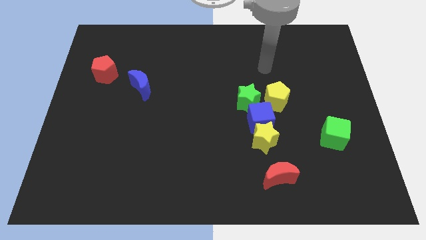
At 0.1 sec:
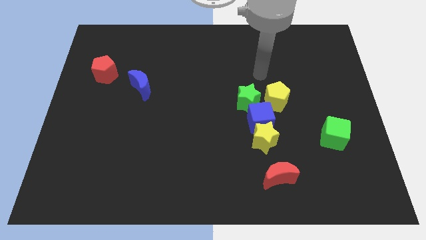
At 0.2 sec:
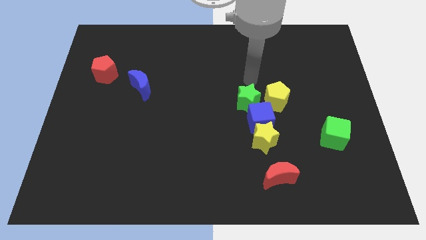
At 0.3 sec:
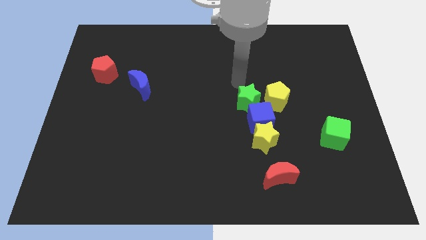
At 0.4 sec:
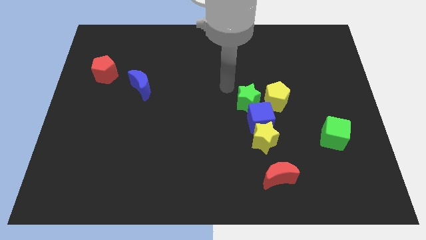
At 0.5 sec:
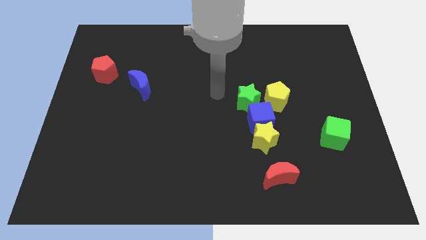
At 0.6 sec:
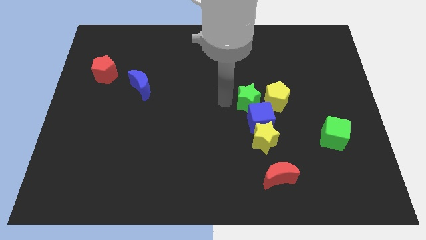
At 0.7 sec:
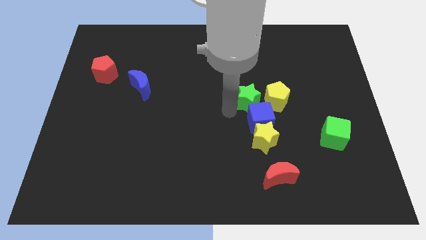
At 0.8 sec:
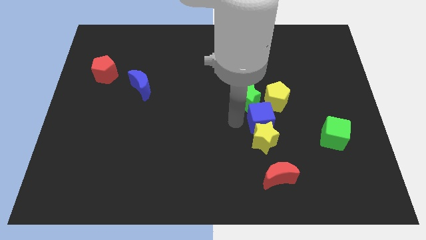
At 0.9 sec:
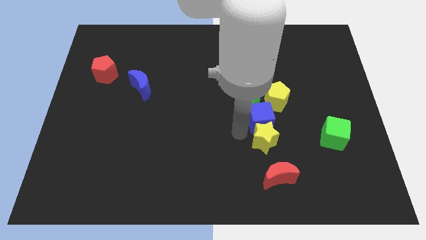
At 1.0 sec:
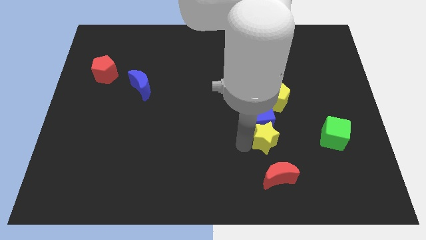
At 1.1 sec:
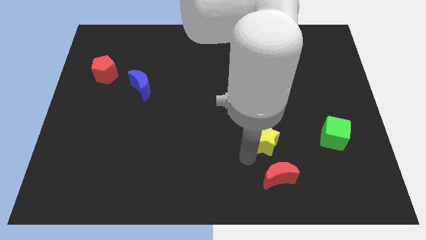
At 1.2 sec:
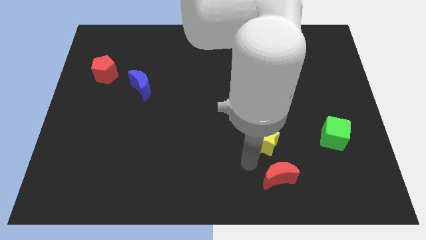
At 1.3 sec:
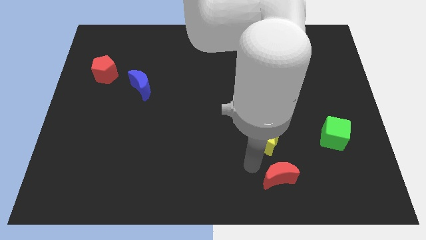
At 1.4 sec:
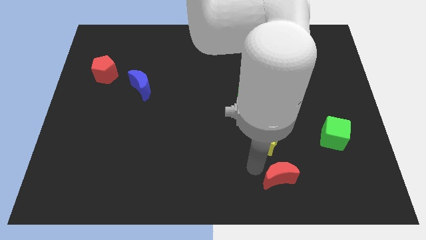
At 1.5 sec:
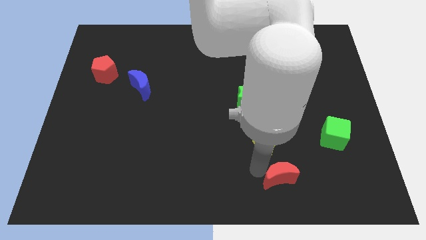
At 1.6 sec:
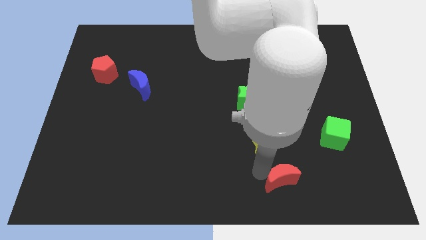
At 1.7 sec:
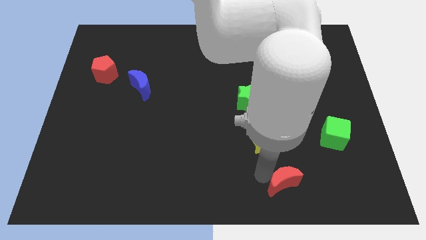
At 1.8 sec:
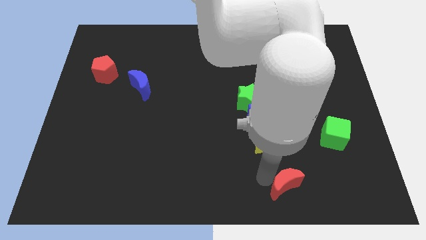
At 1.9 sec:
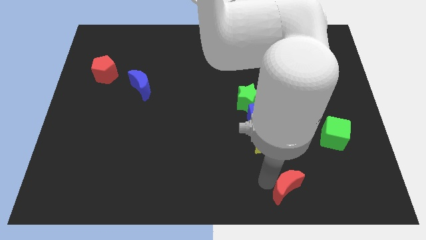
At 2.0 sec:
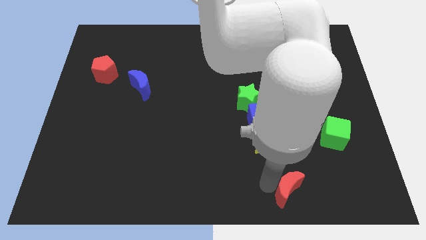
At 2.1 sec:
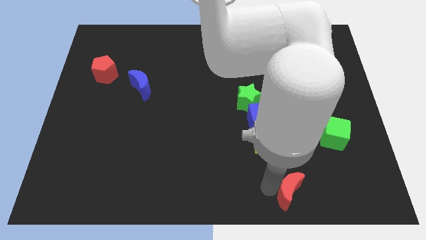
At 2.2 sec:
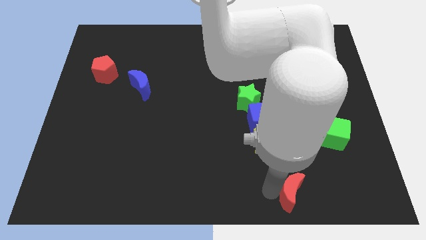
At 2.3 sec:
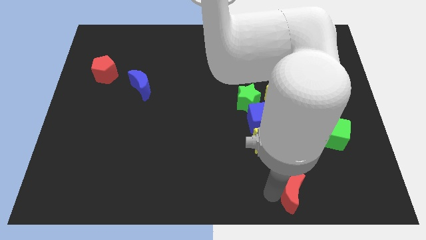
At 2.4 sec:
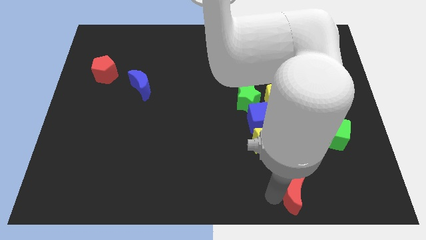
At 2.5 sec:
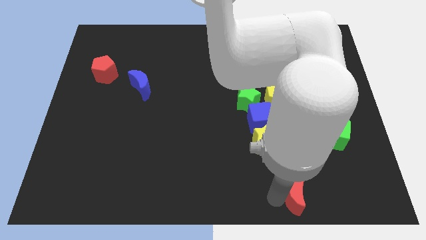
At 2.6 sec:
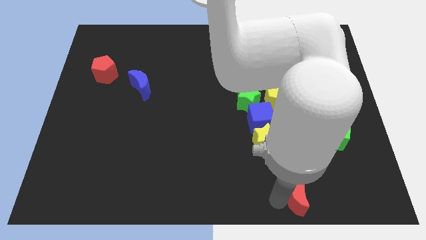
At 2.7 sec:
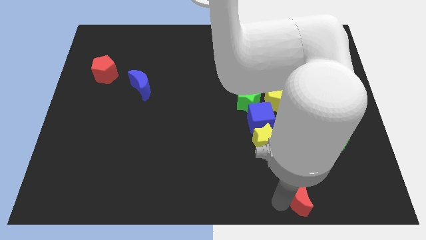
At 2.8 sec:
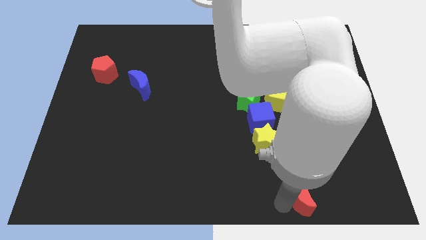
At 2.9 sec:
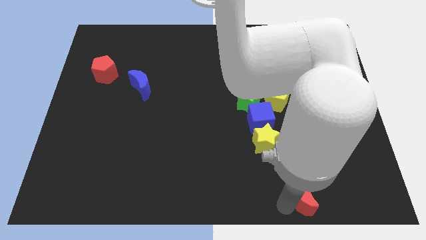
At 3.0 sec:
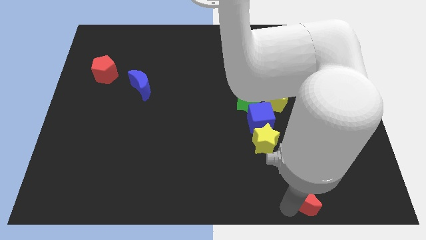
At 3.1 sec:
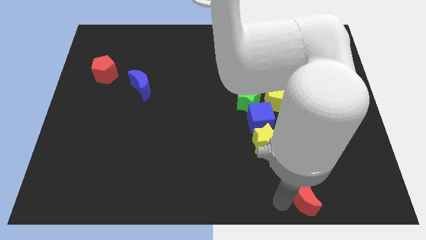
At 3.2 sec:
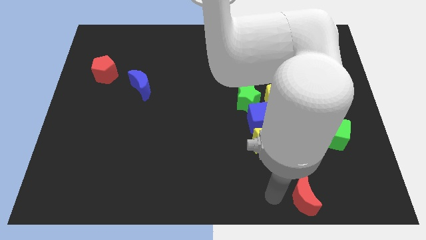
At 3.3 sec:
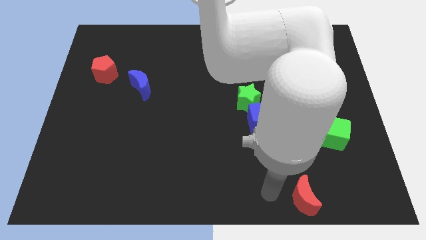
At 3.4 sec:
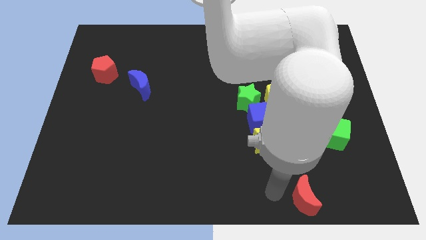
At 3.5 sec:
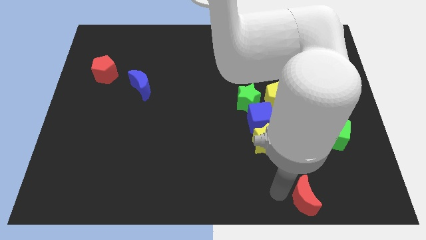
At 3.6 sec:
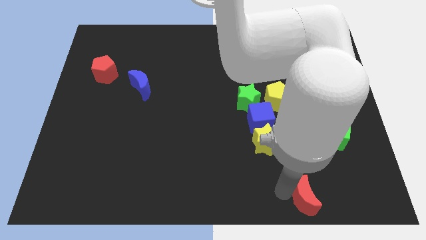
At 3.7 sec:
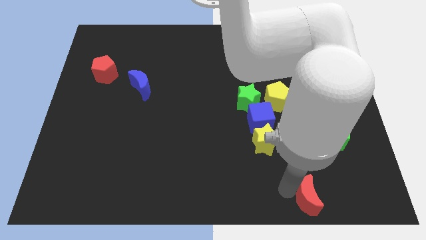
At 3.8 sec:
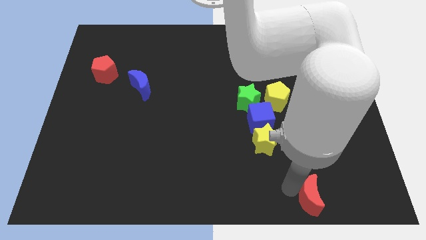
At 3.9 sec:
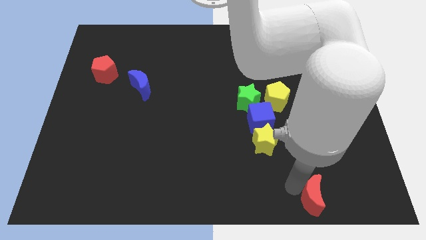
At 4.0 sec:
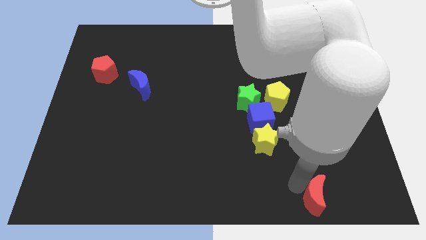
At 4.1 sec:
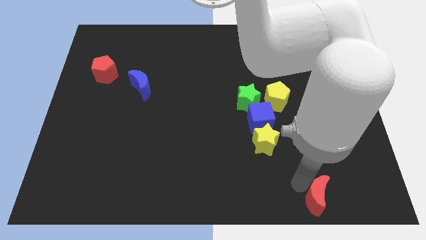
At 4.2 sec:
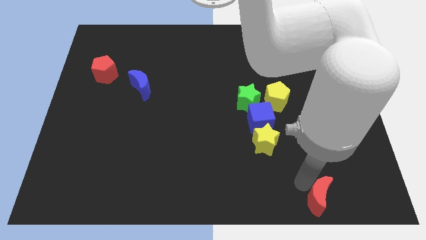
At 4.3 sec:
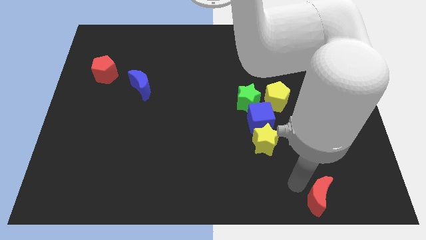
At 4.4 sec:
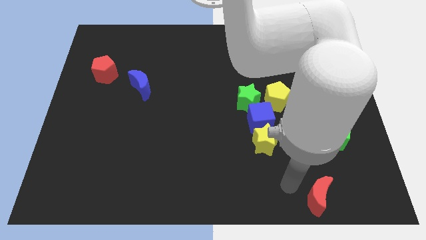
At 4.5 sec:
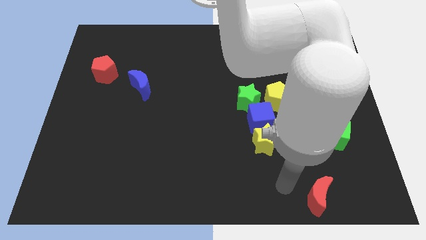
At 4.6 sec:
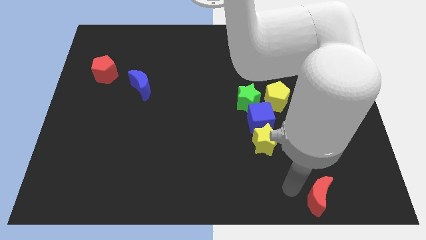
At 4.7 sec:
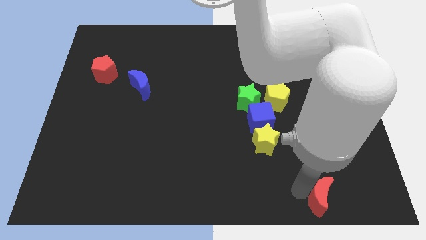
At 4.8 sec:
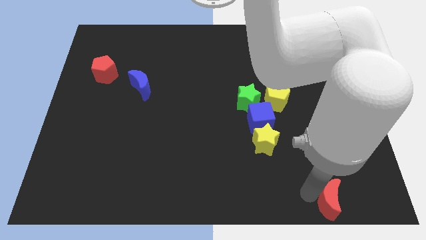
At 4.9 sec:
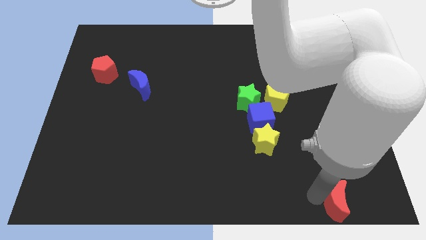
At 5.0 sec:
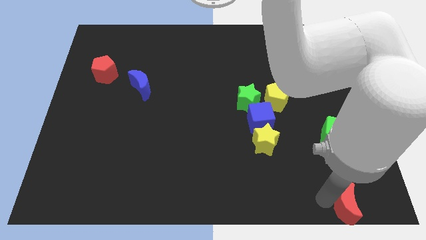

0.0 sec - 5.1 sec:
put the red moon to the lower right corner

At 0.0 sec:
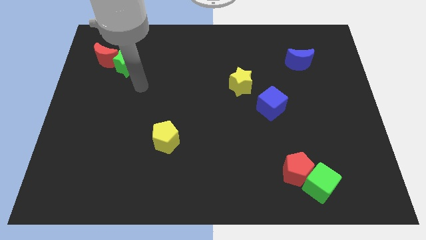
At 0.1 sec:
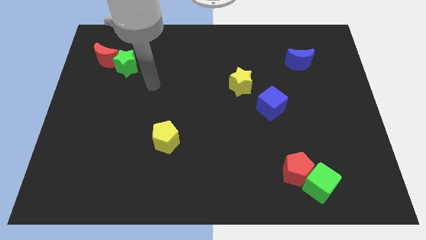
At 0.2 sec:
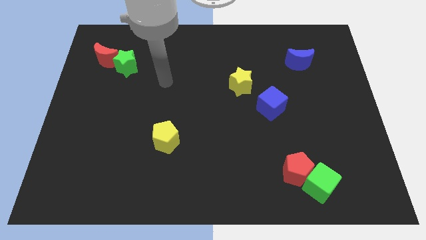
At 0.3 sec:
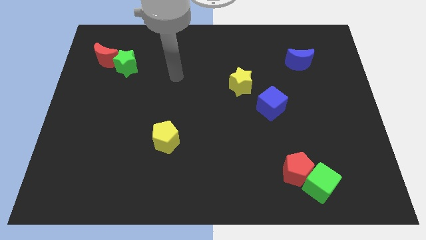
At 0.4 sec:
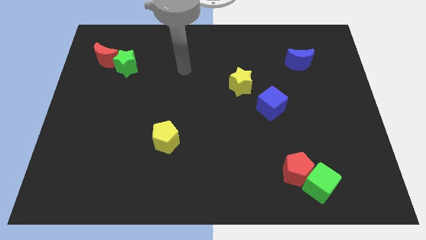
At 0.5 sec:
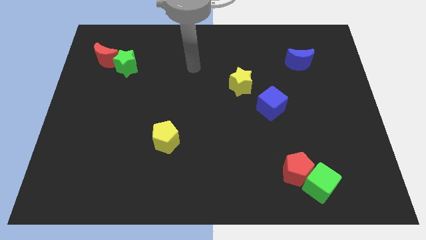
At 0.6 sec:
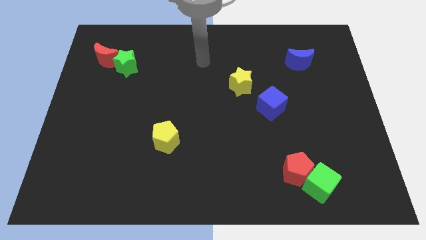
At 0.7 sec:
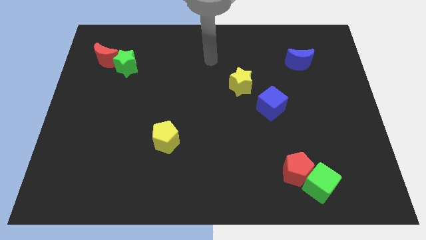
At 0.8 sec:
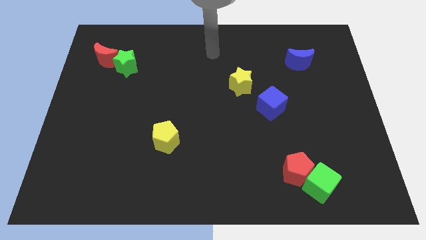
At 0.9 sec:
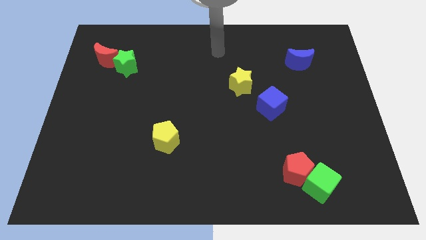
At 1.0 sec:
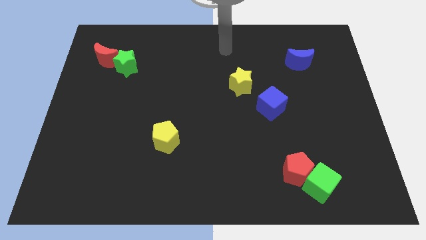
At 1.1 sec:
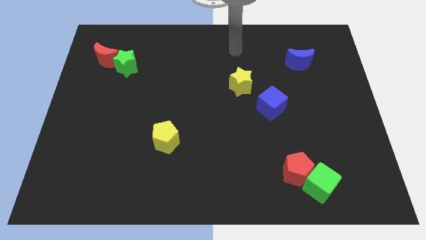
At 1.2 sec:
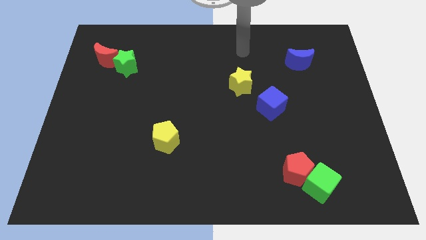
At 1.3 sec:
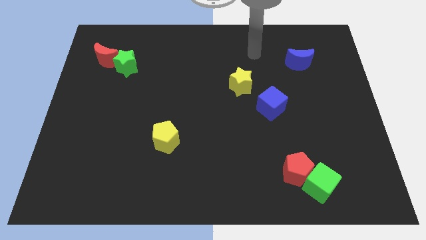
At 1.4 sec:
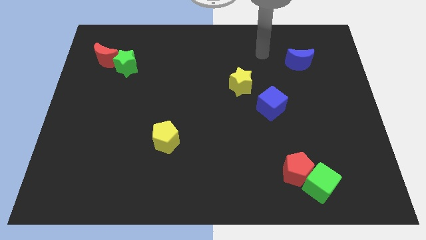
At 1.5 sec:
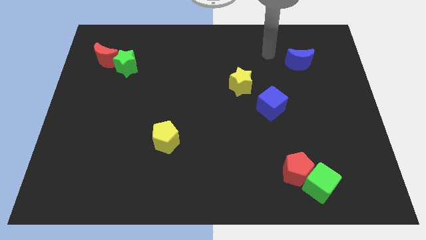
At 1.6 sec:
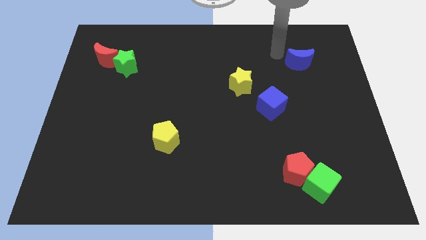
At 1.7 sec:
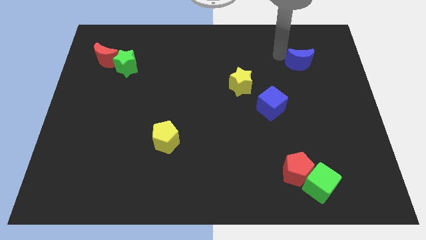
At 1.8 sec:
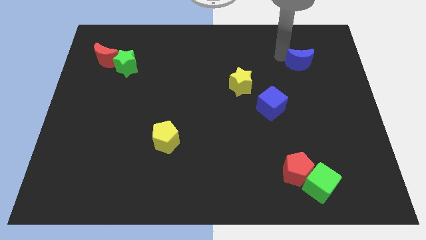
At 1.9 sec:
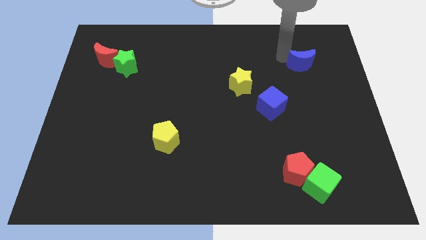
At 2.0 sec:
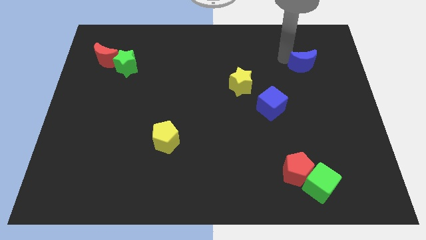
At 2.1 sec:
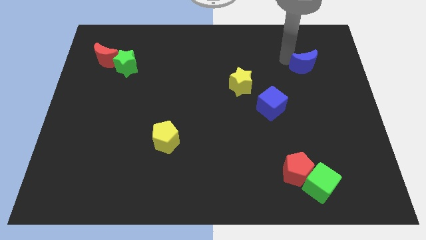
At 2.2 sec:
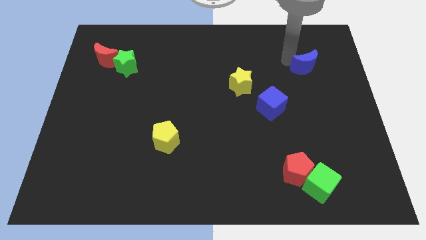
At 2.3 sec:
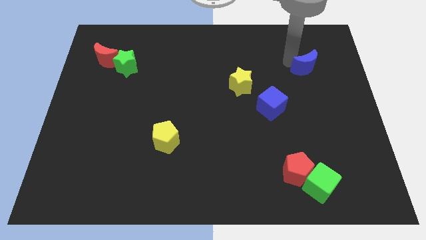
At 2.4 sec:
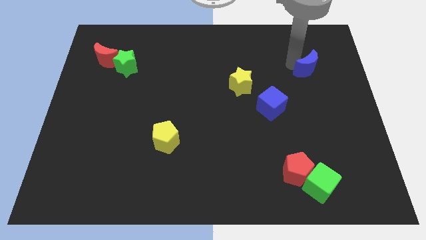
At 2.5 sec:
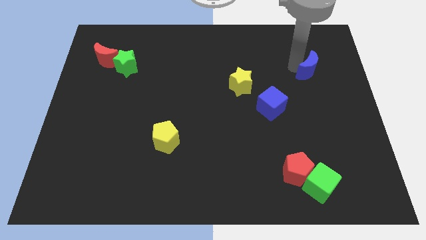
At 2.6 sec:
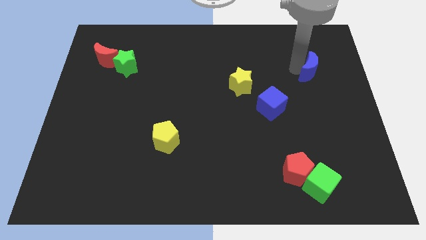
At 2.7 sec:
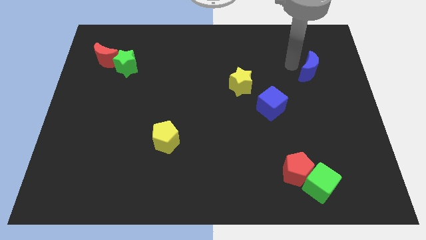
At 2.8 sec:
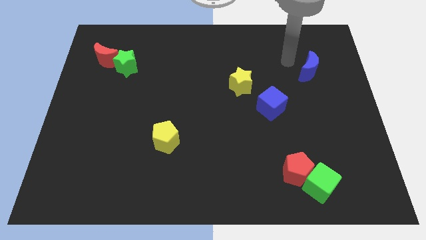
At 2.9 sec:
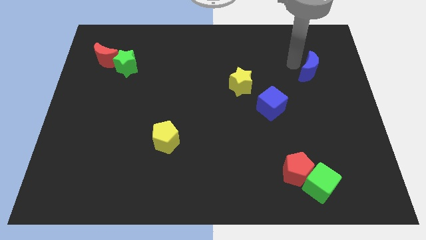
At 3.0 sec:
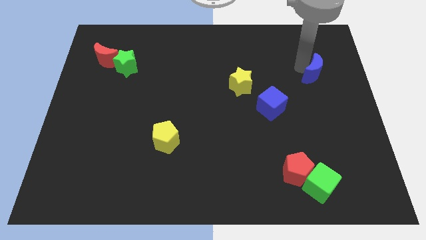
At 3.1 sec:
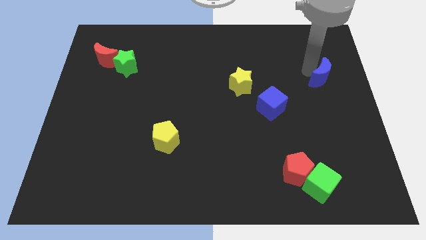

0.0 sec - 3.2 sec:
slide the blue moon to the center right
